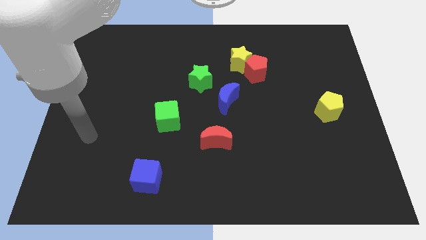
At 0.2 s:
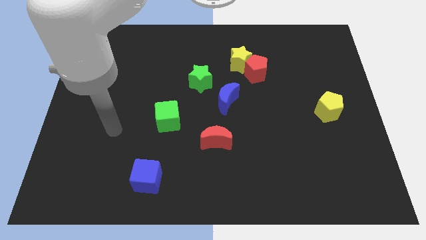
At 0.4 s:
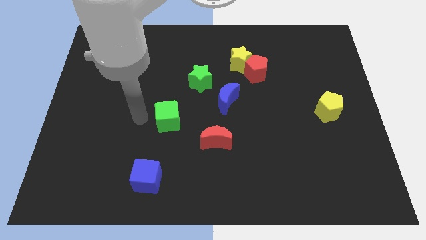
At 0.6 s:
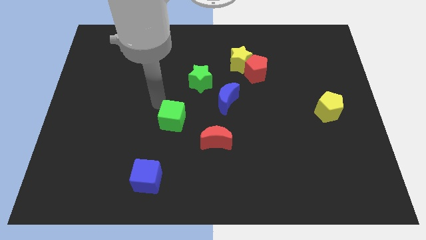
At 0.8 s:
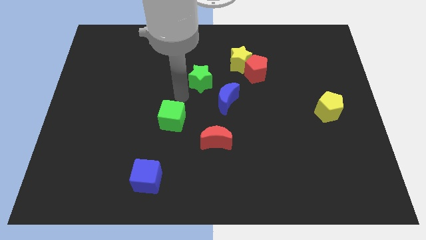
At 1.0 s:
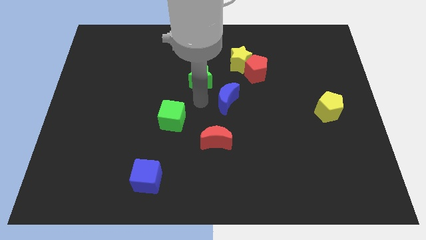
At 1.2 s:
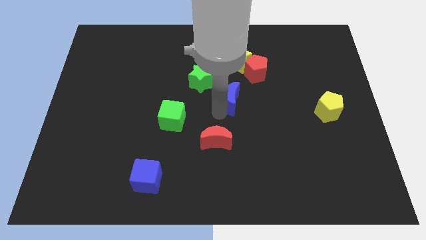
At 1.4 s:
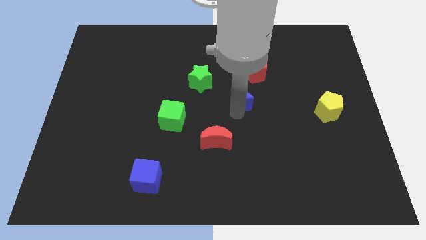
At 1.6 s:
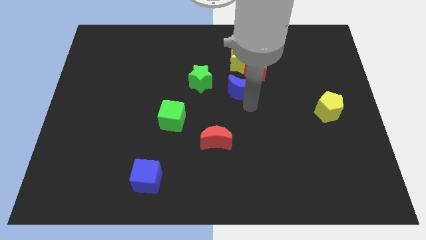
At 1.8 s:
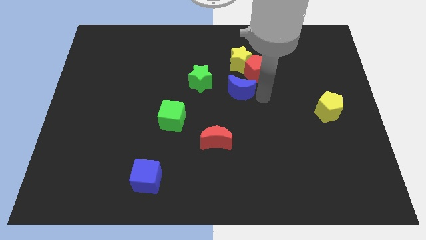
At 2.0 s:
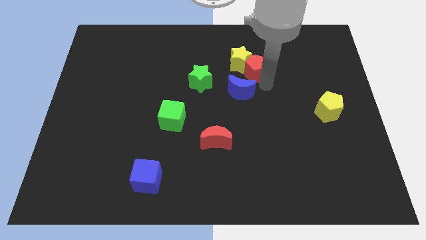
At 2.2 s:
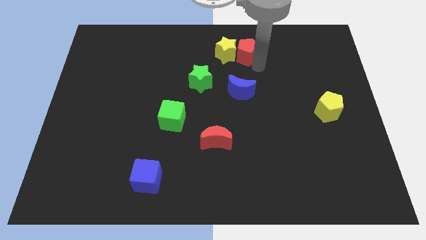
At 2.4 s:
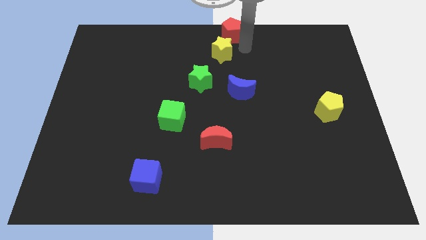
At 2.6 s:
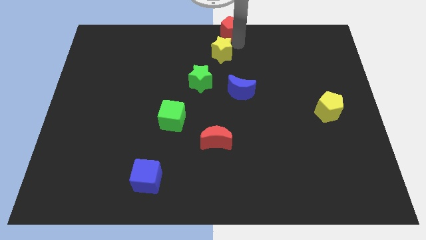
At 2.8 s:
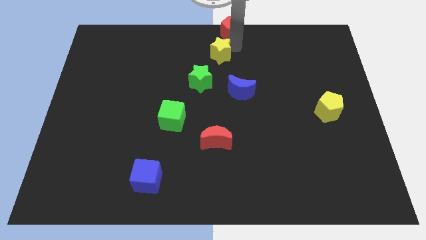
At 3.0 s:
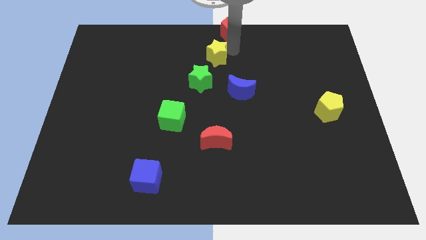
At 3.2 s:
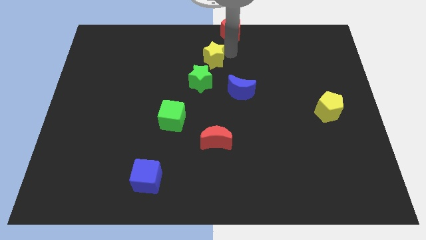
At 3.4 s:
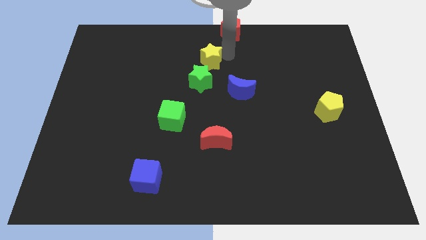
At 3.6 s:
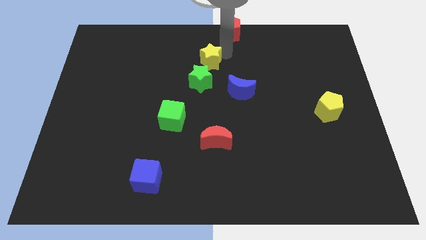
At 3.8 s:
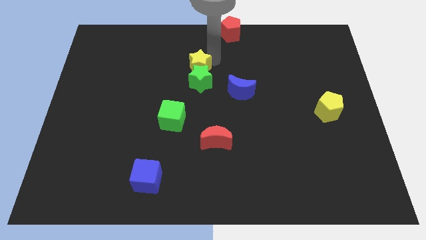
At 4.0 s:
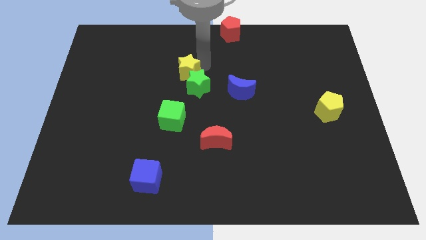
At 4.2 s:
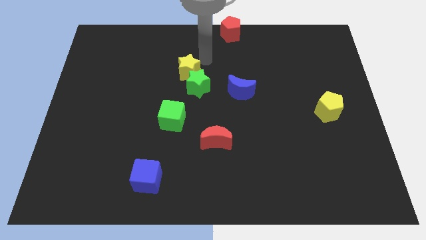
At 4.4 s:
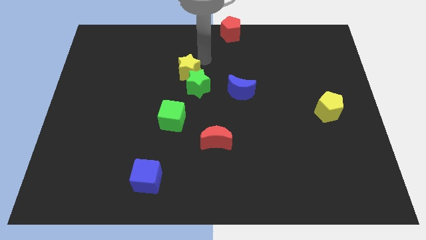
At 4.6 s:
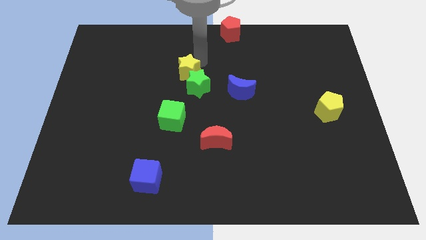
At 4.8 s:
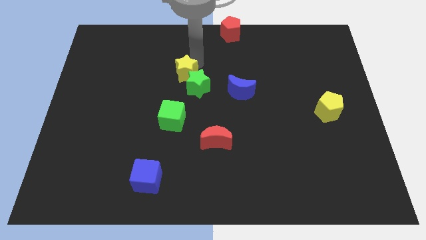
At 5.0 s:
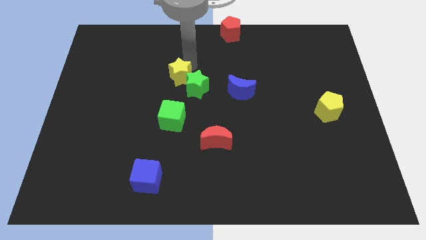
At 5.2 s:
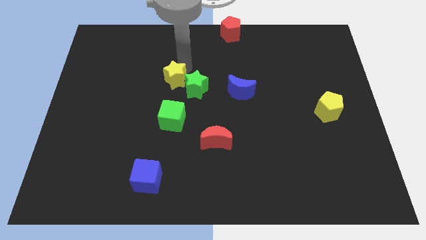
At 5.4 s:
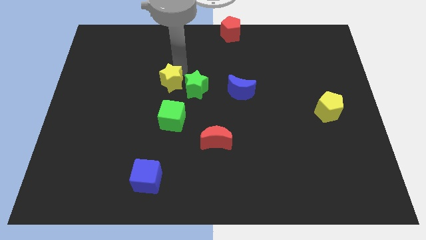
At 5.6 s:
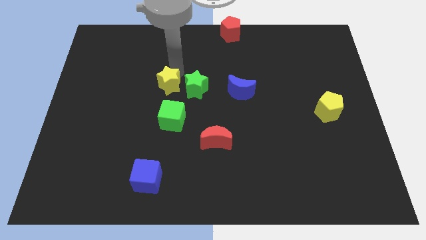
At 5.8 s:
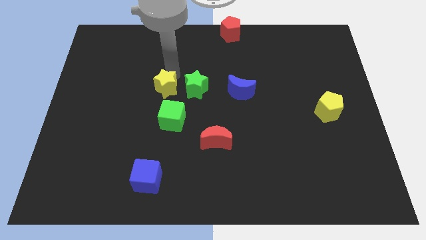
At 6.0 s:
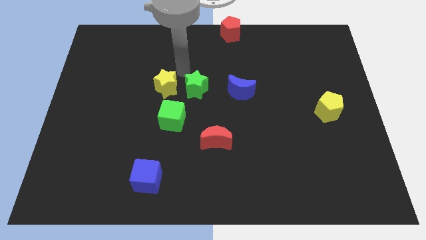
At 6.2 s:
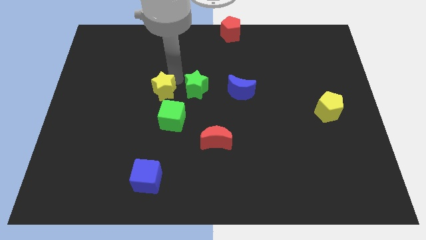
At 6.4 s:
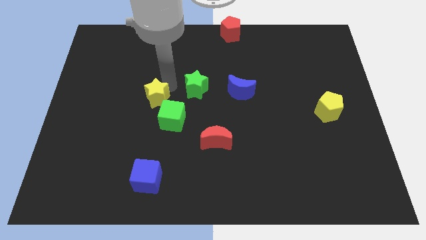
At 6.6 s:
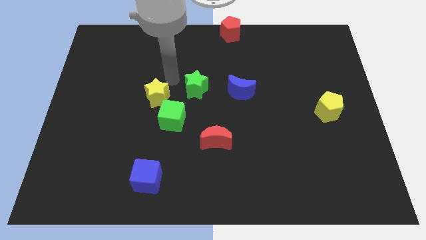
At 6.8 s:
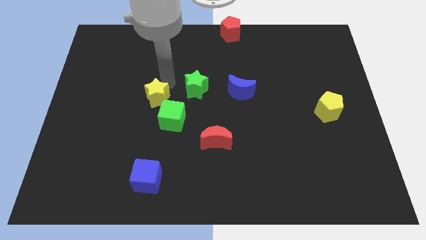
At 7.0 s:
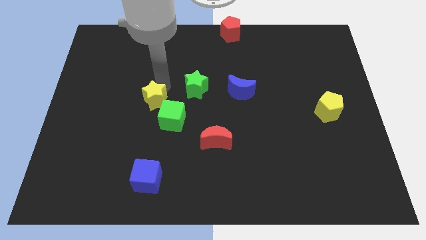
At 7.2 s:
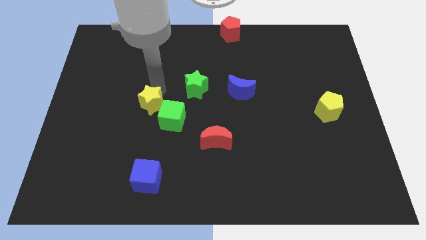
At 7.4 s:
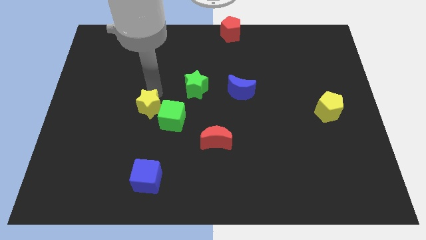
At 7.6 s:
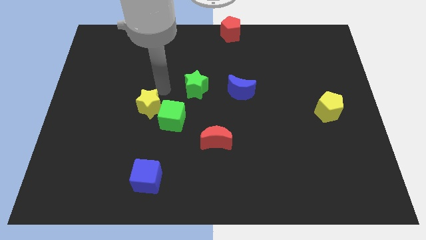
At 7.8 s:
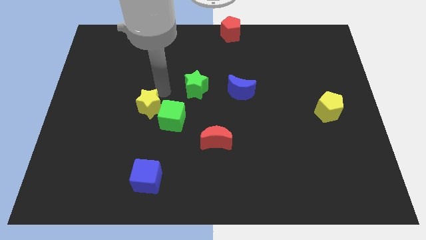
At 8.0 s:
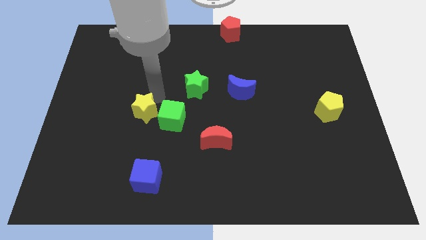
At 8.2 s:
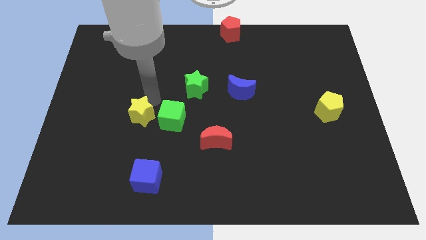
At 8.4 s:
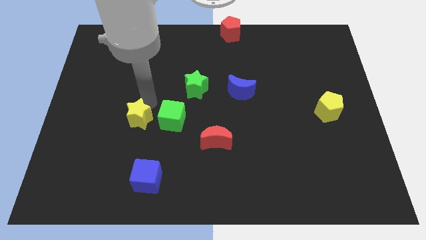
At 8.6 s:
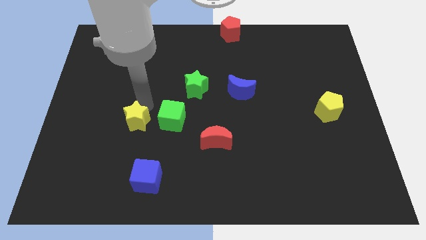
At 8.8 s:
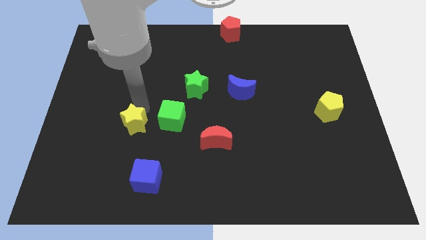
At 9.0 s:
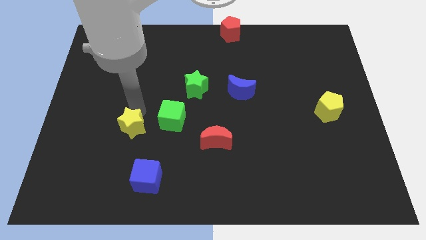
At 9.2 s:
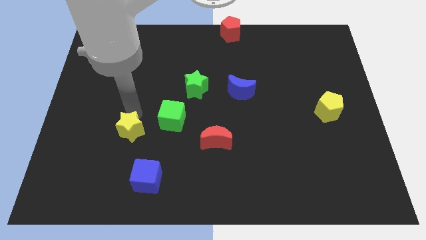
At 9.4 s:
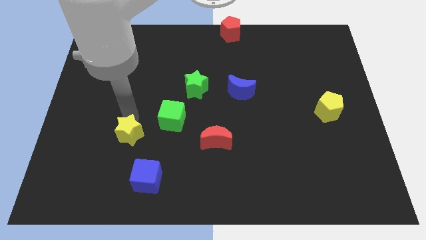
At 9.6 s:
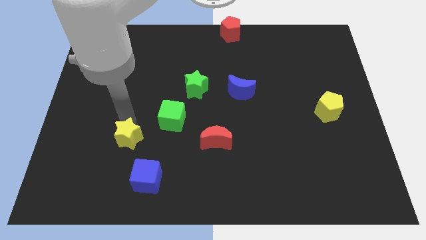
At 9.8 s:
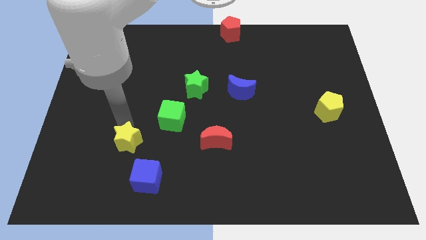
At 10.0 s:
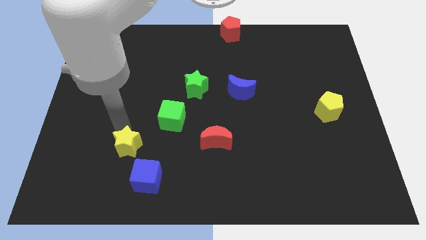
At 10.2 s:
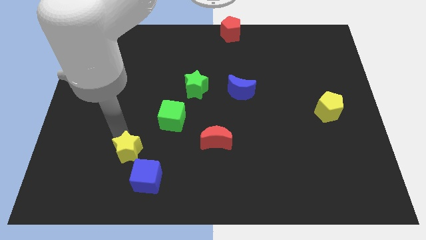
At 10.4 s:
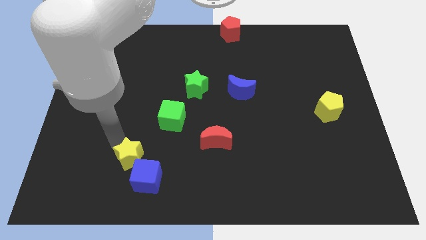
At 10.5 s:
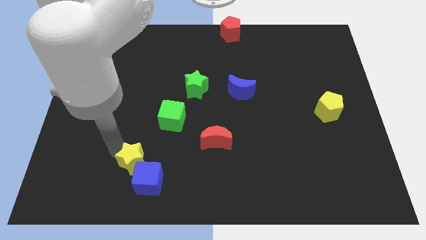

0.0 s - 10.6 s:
slide the yellow star to the blue cube

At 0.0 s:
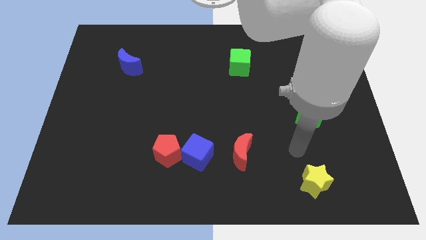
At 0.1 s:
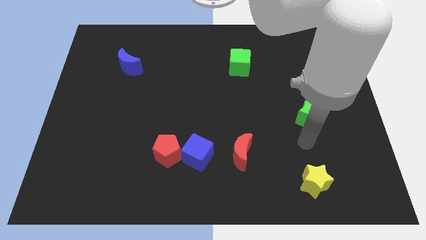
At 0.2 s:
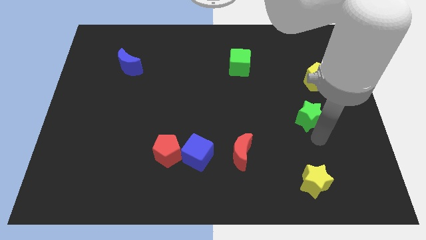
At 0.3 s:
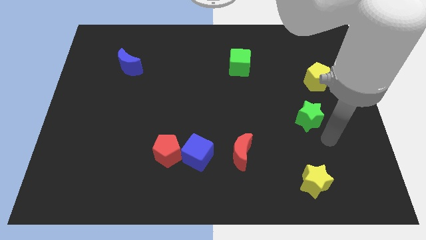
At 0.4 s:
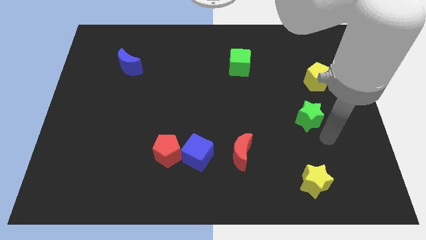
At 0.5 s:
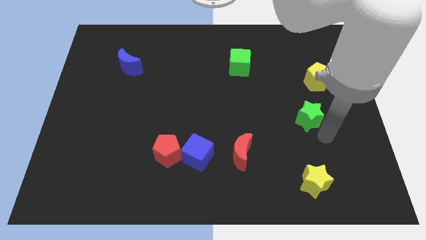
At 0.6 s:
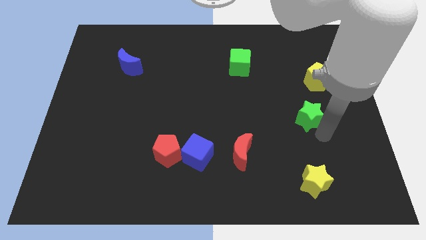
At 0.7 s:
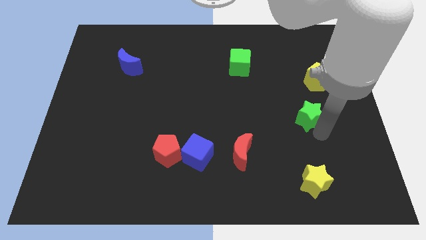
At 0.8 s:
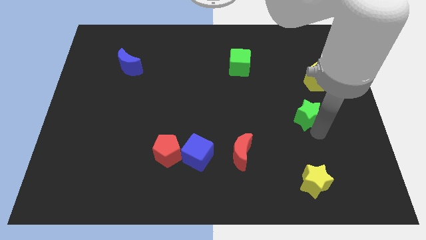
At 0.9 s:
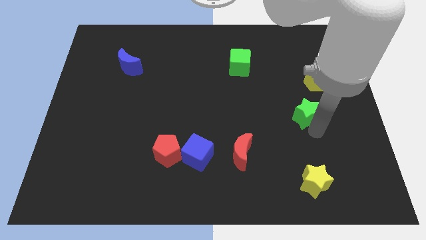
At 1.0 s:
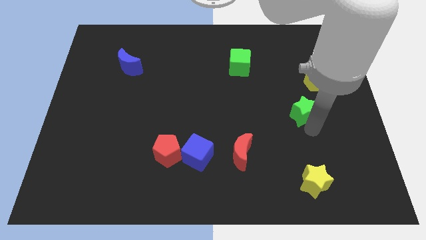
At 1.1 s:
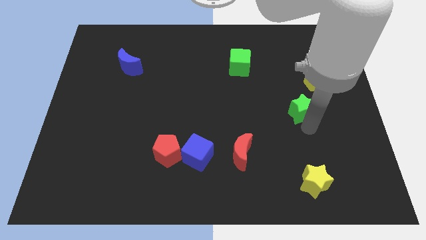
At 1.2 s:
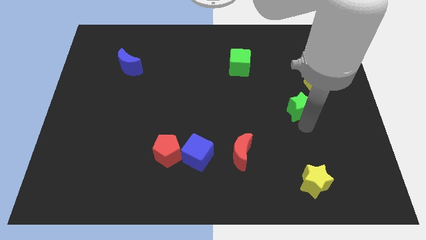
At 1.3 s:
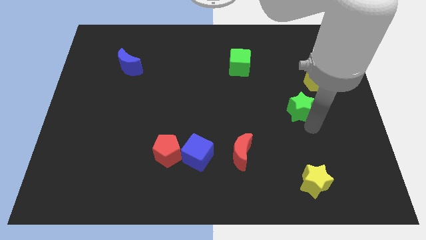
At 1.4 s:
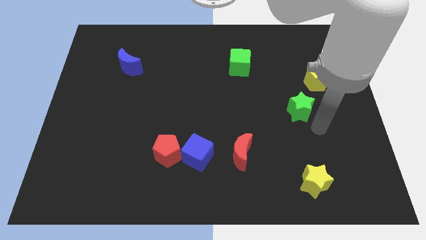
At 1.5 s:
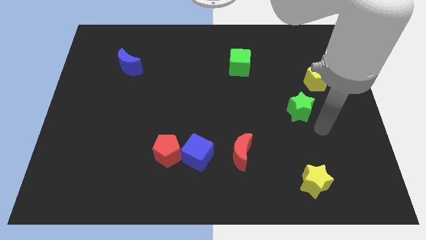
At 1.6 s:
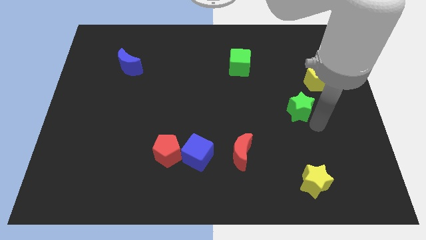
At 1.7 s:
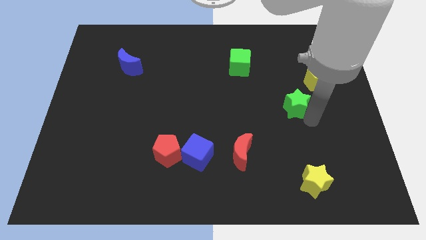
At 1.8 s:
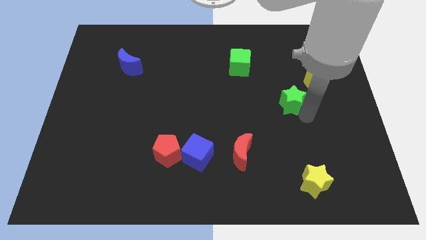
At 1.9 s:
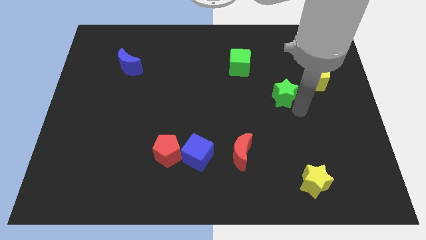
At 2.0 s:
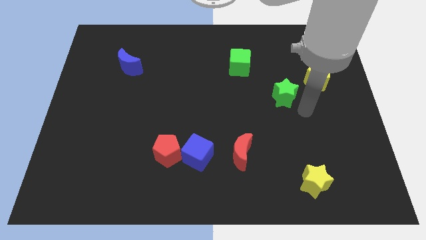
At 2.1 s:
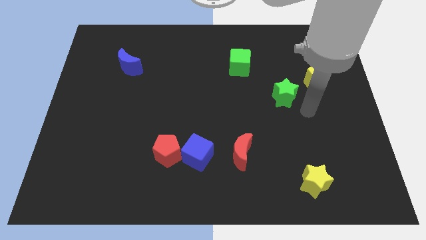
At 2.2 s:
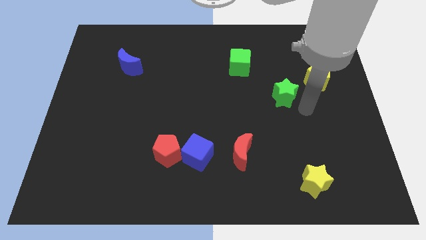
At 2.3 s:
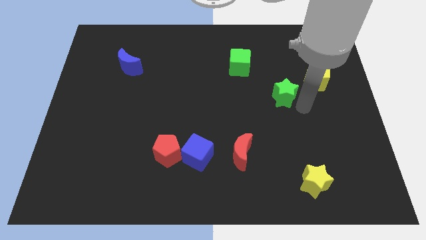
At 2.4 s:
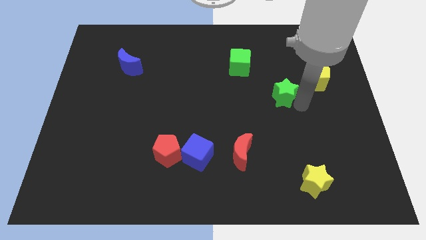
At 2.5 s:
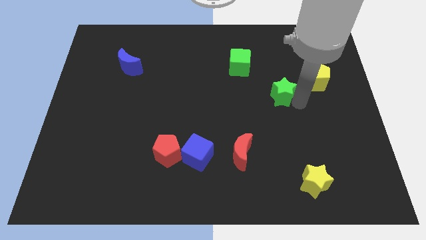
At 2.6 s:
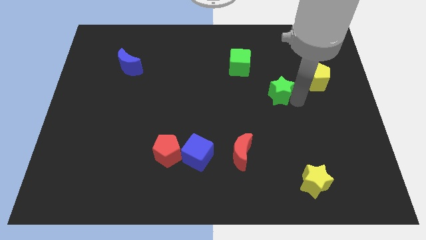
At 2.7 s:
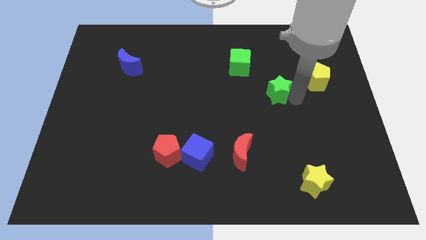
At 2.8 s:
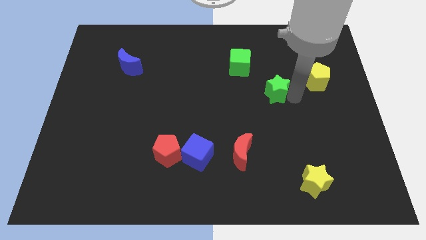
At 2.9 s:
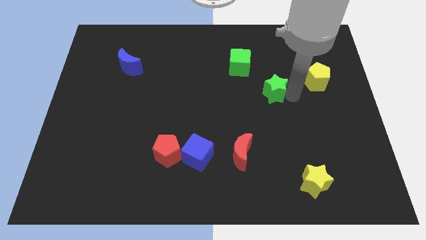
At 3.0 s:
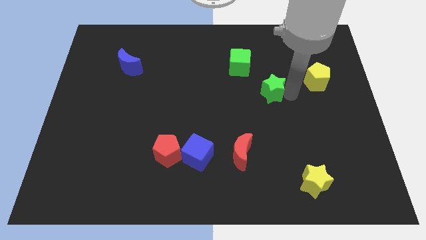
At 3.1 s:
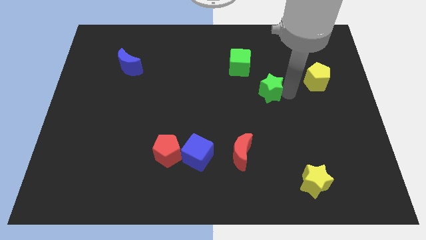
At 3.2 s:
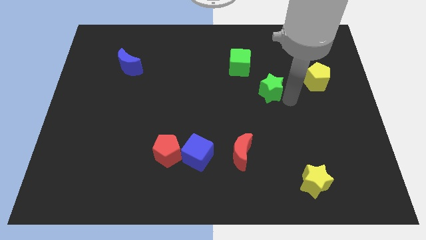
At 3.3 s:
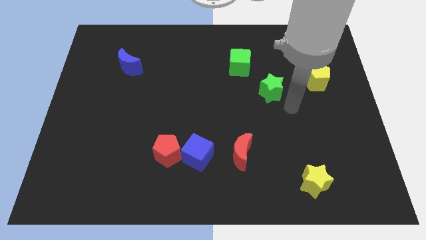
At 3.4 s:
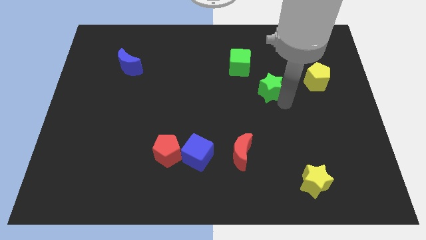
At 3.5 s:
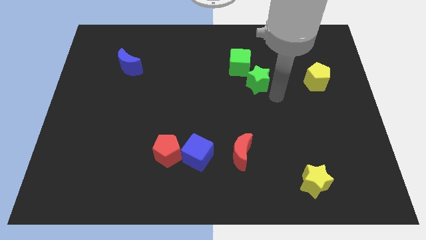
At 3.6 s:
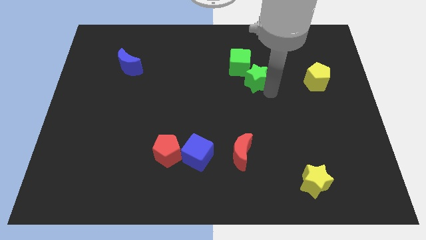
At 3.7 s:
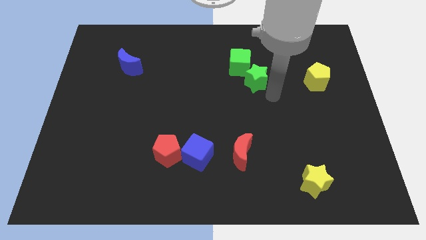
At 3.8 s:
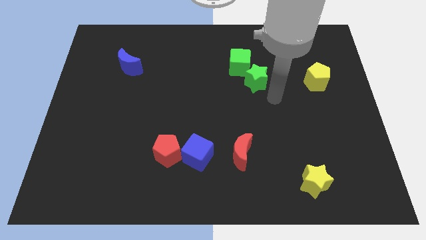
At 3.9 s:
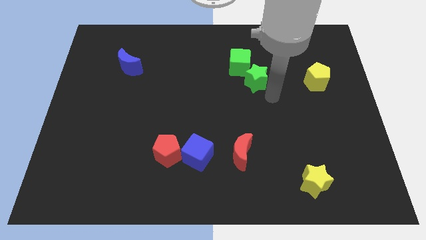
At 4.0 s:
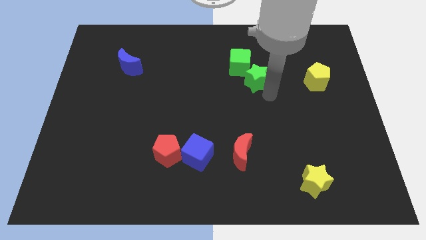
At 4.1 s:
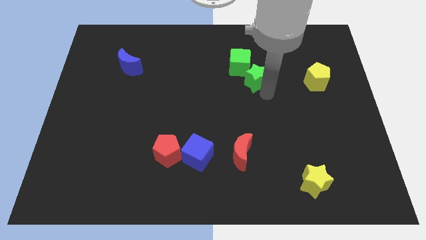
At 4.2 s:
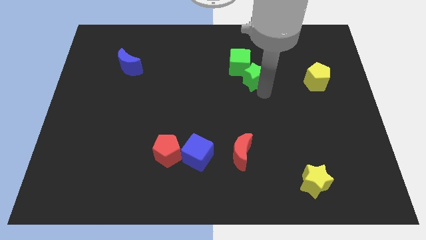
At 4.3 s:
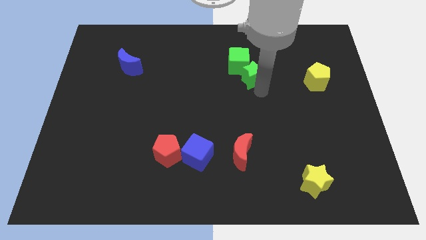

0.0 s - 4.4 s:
slide the green star close to the green cube
